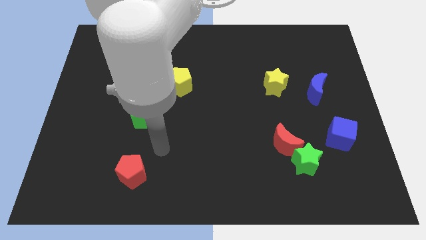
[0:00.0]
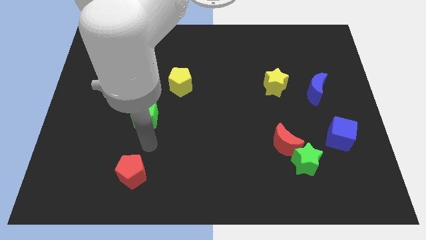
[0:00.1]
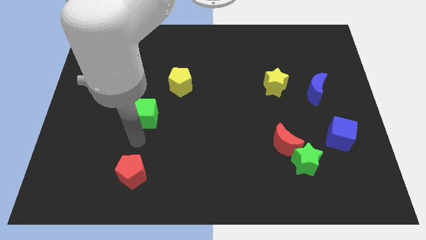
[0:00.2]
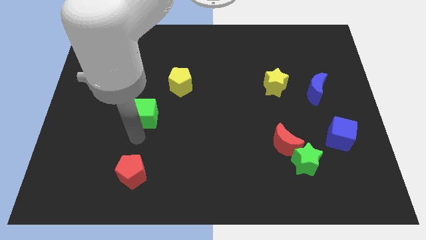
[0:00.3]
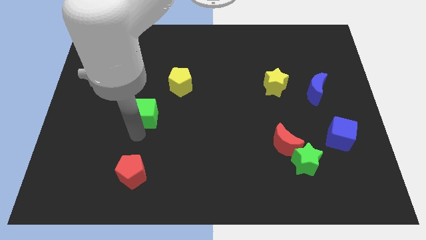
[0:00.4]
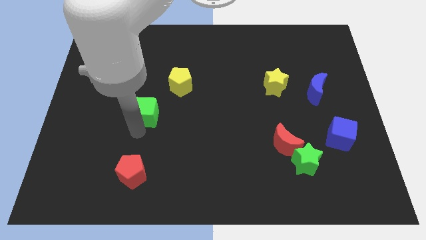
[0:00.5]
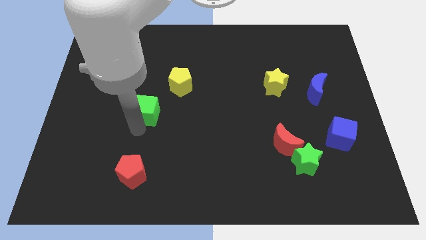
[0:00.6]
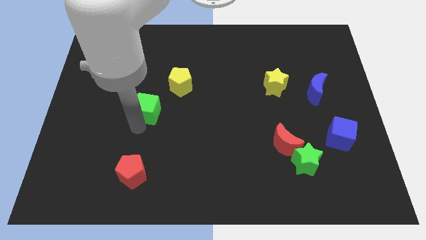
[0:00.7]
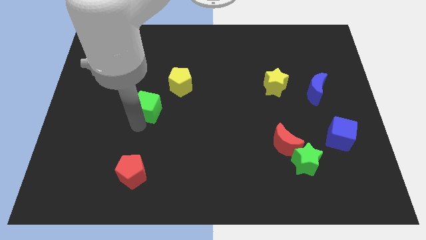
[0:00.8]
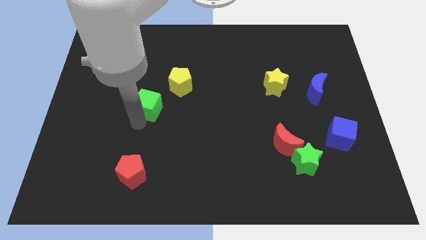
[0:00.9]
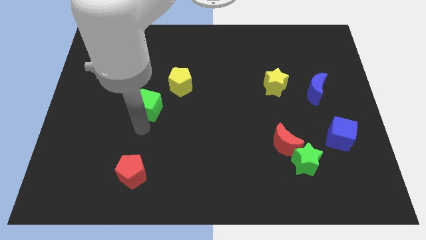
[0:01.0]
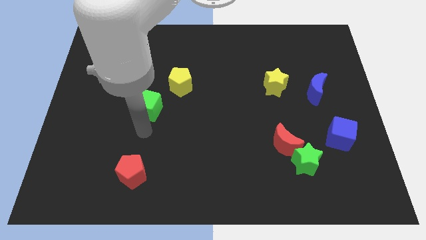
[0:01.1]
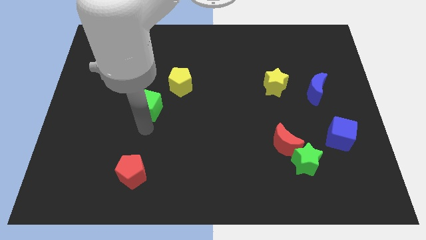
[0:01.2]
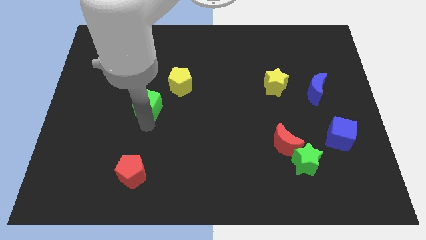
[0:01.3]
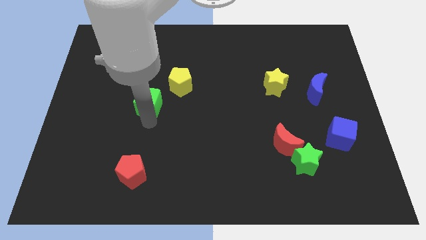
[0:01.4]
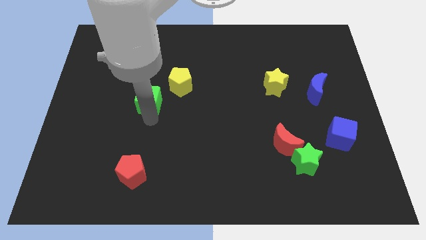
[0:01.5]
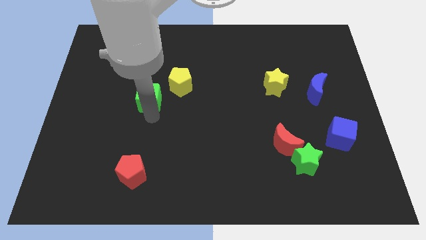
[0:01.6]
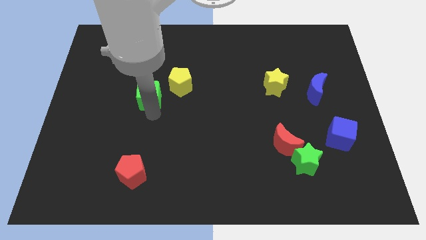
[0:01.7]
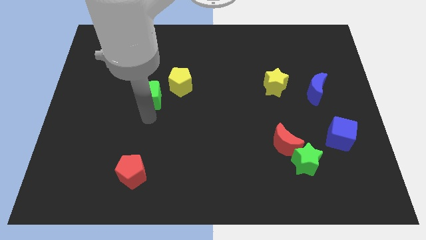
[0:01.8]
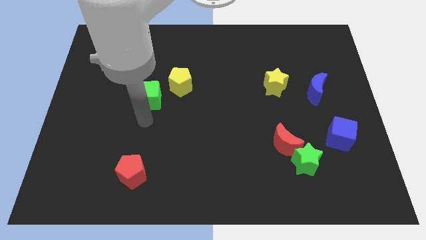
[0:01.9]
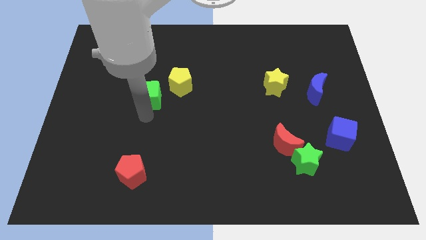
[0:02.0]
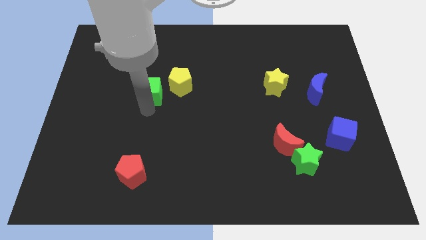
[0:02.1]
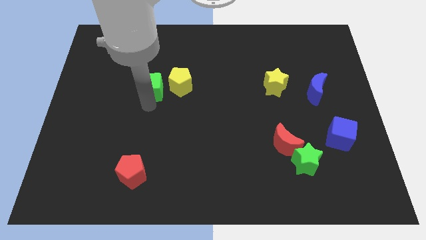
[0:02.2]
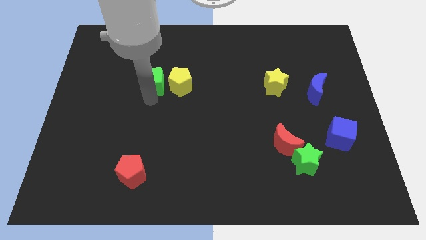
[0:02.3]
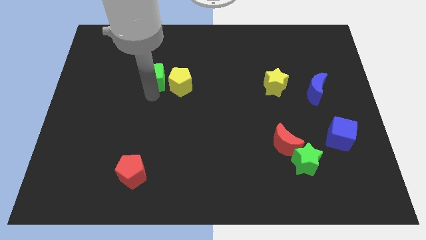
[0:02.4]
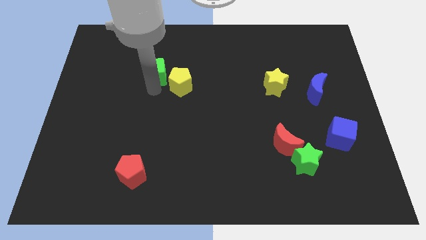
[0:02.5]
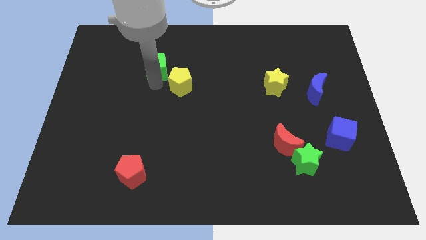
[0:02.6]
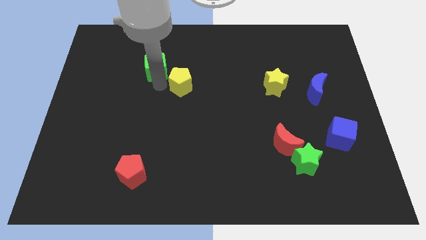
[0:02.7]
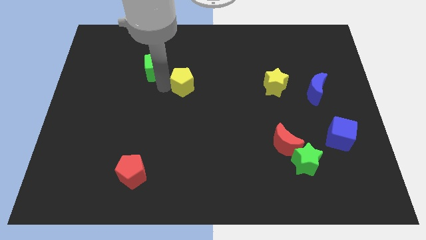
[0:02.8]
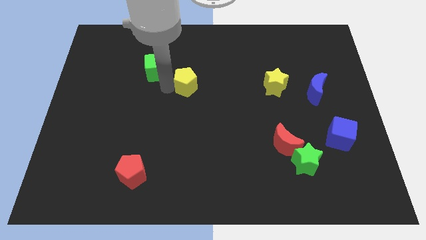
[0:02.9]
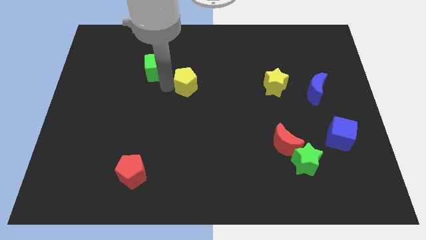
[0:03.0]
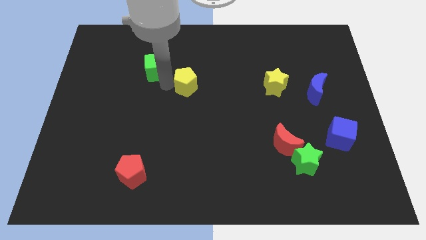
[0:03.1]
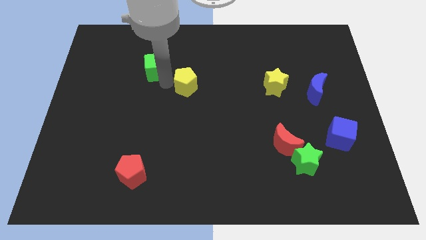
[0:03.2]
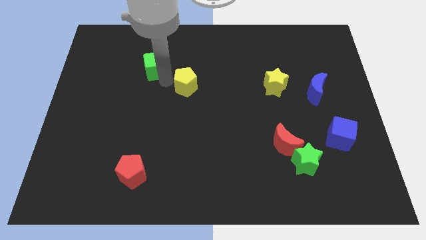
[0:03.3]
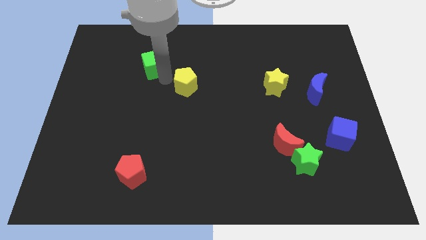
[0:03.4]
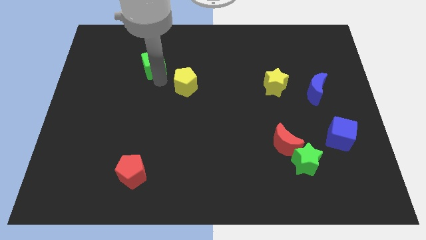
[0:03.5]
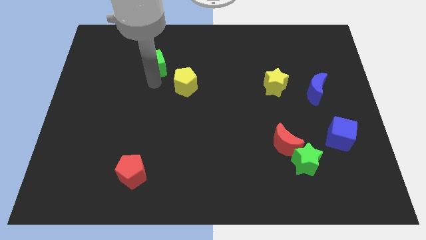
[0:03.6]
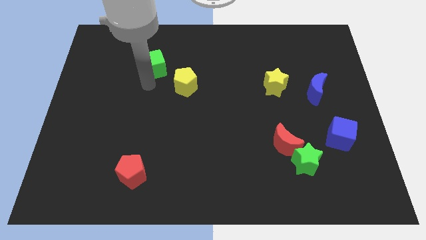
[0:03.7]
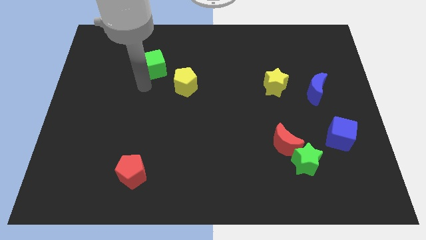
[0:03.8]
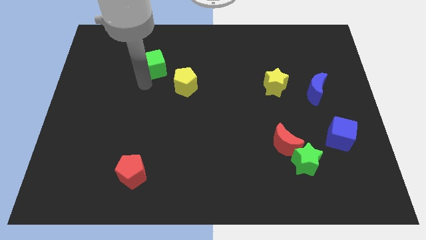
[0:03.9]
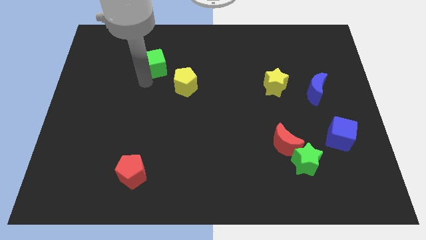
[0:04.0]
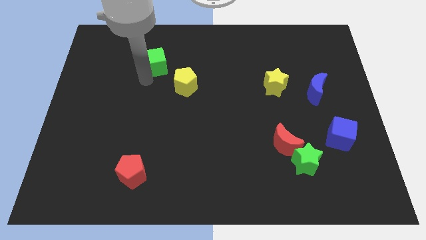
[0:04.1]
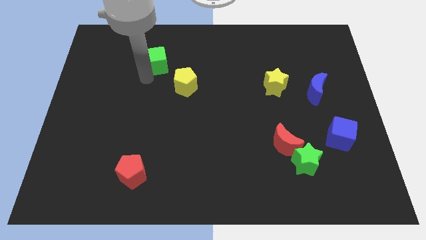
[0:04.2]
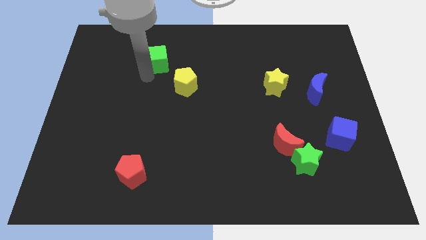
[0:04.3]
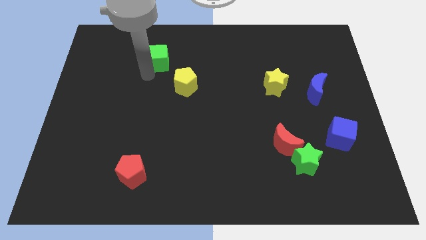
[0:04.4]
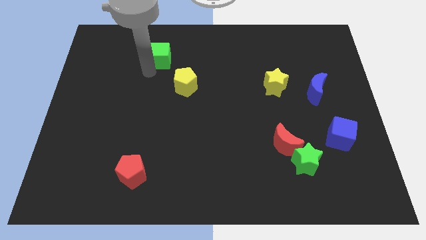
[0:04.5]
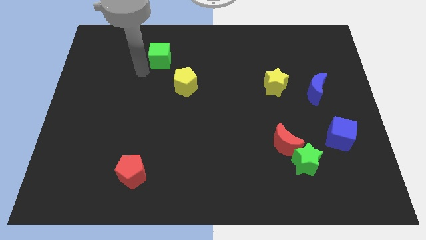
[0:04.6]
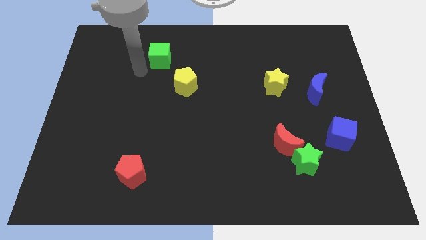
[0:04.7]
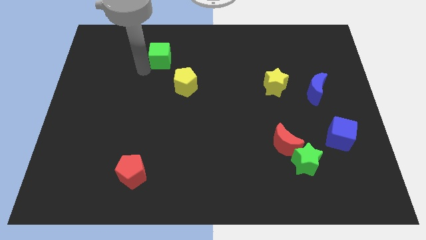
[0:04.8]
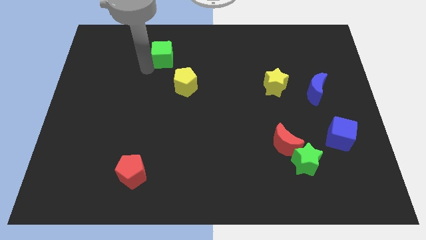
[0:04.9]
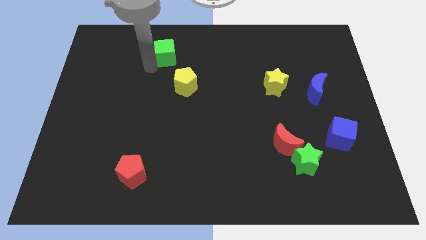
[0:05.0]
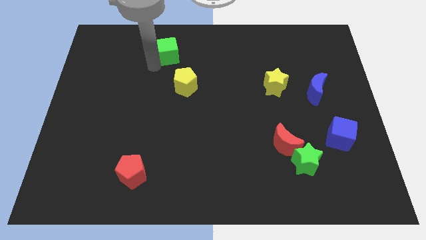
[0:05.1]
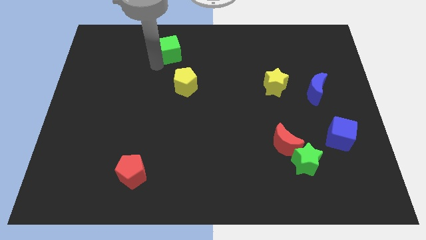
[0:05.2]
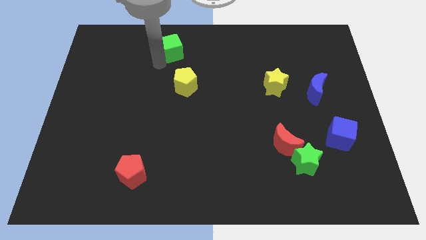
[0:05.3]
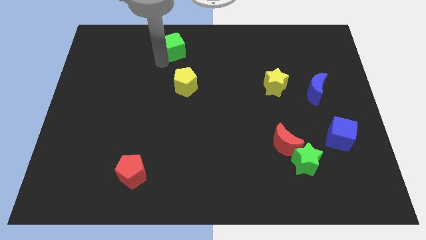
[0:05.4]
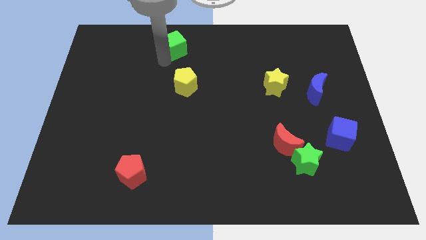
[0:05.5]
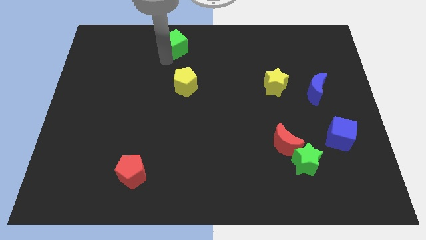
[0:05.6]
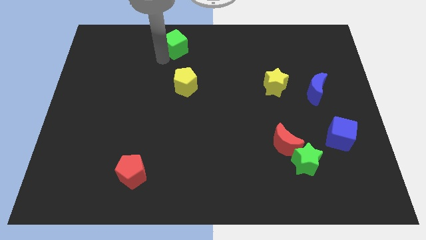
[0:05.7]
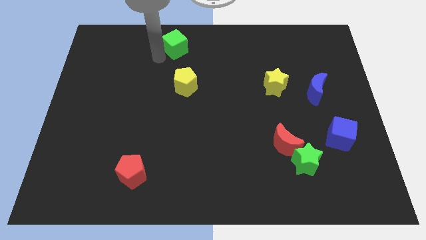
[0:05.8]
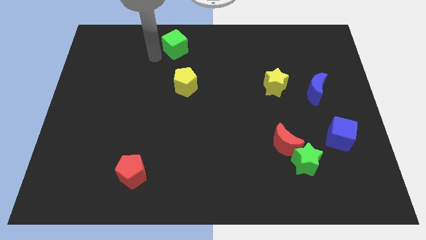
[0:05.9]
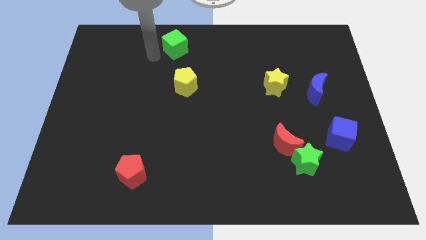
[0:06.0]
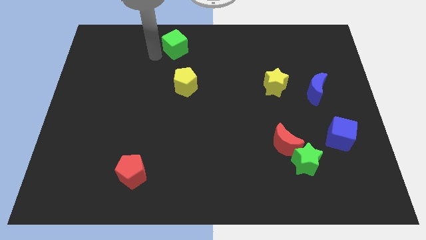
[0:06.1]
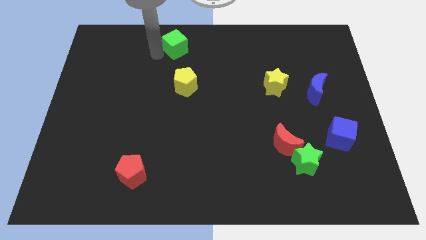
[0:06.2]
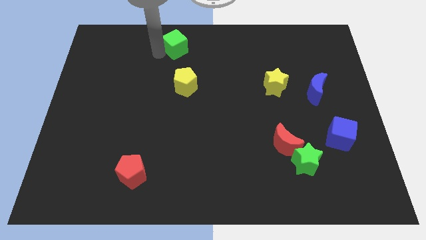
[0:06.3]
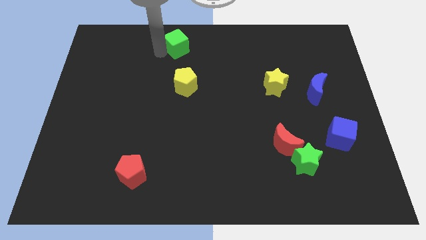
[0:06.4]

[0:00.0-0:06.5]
push the green cube to the top side

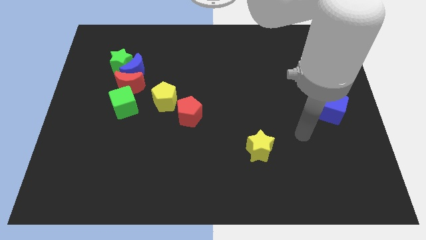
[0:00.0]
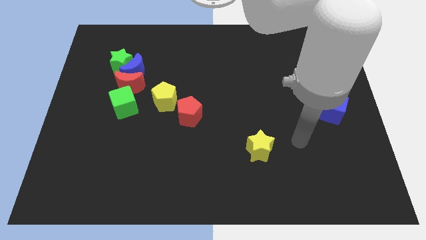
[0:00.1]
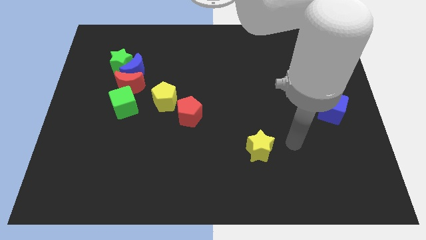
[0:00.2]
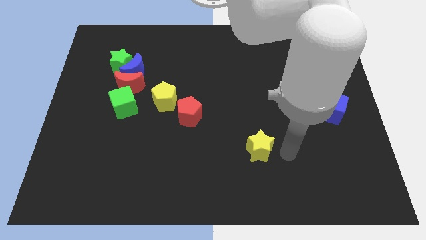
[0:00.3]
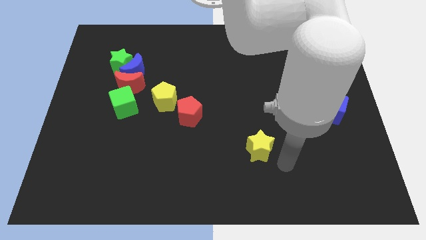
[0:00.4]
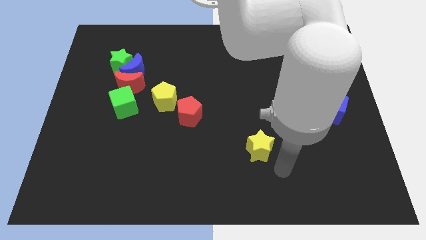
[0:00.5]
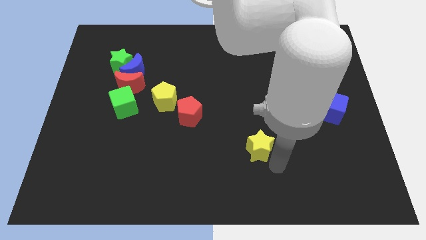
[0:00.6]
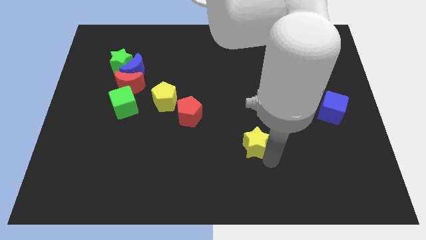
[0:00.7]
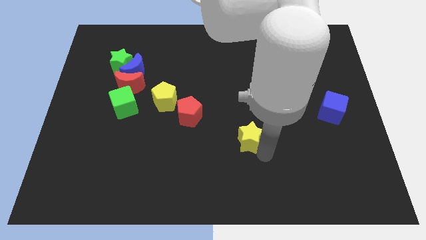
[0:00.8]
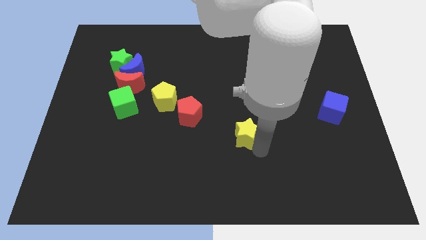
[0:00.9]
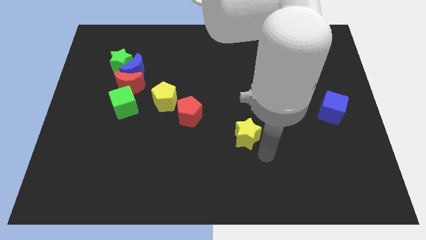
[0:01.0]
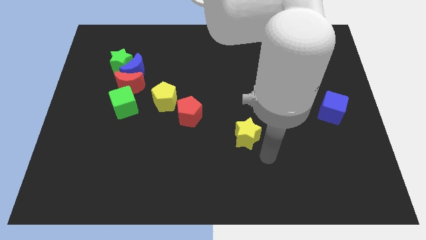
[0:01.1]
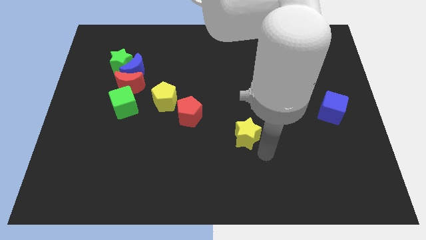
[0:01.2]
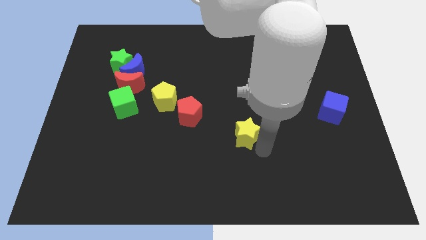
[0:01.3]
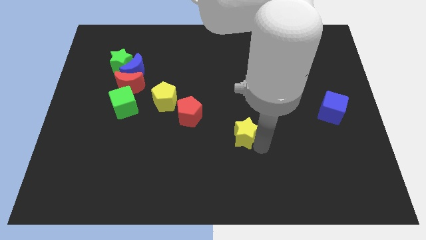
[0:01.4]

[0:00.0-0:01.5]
move the yellow star to the middle
